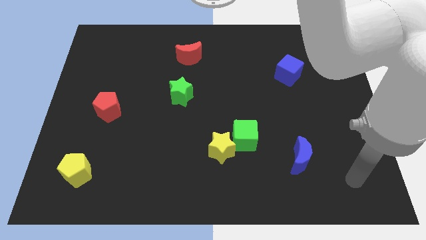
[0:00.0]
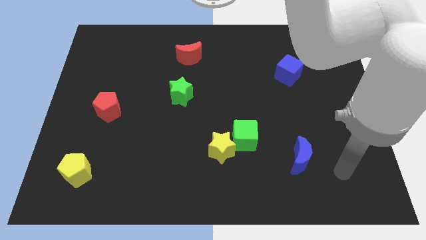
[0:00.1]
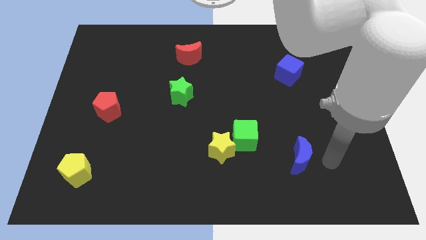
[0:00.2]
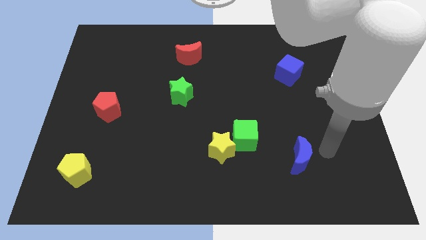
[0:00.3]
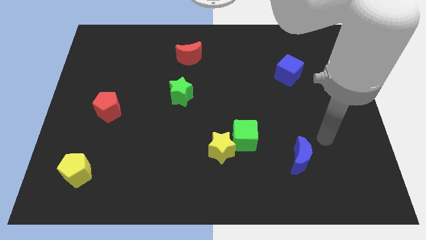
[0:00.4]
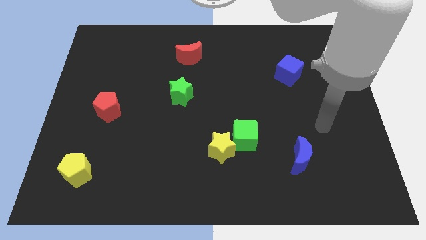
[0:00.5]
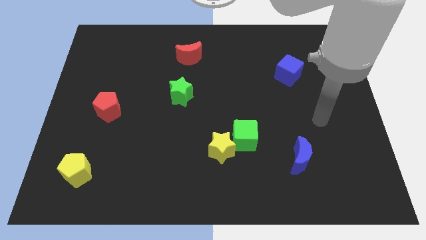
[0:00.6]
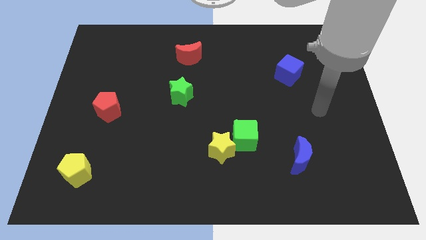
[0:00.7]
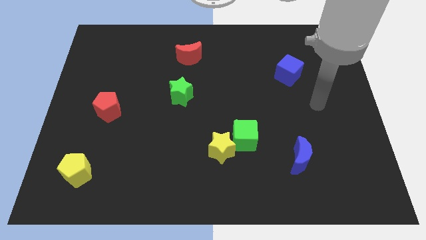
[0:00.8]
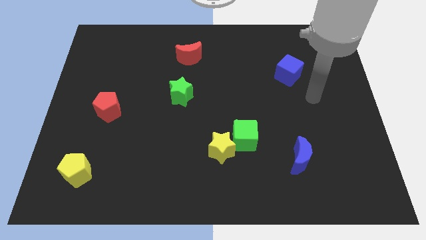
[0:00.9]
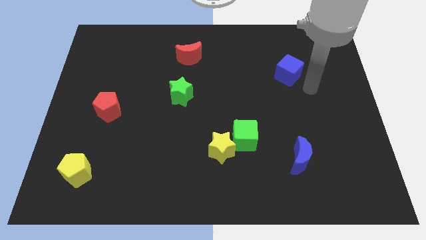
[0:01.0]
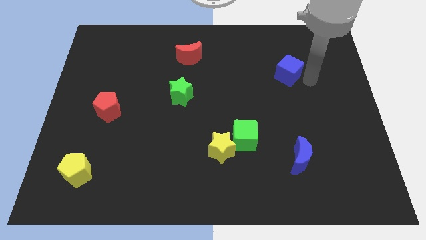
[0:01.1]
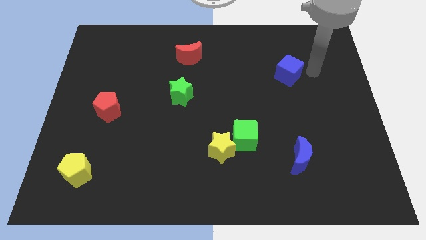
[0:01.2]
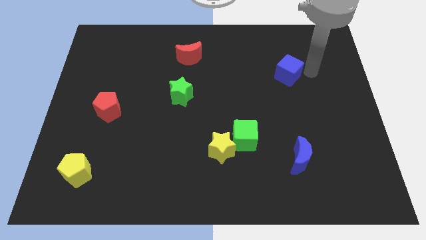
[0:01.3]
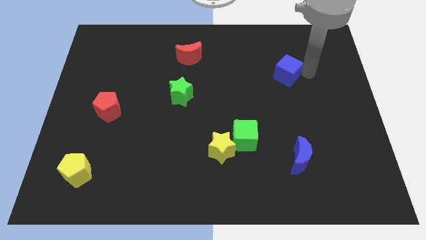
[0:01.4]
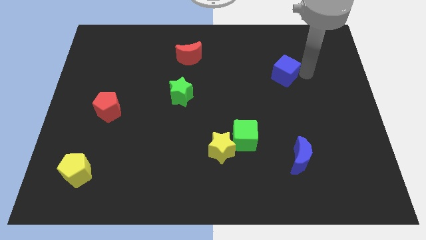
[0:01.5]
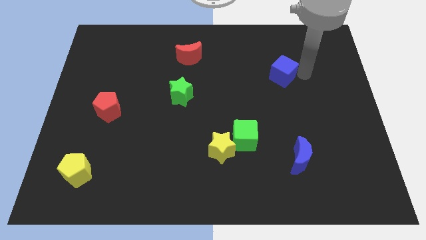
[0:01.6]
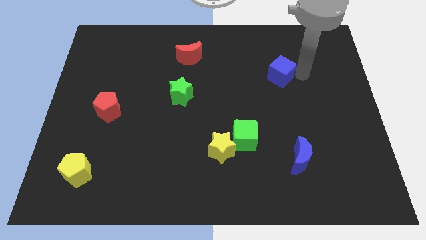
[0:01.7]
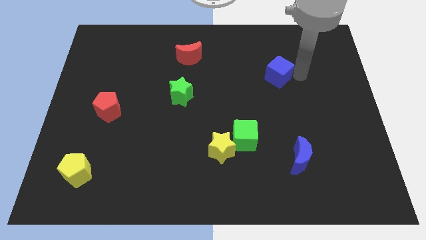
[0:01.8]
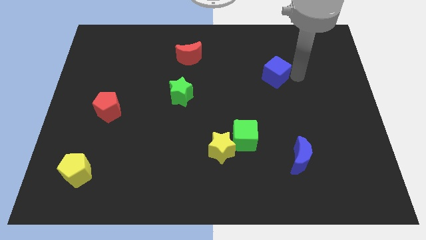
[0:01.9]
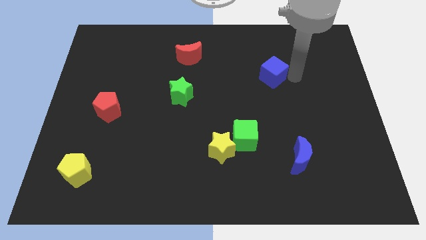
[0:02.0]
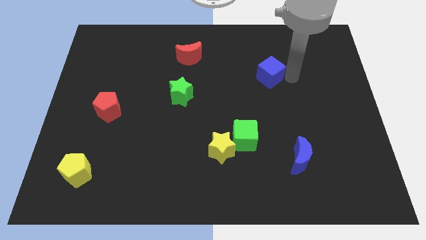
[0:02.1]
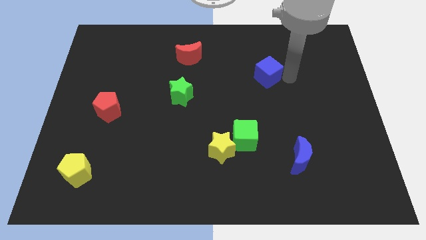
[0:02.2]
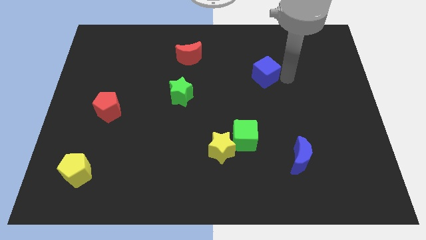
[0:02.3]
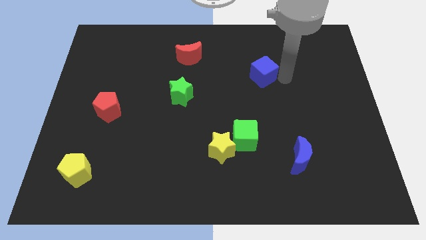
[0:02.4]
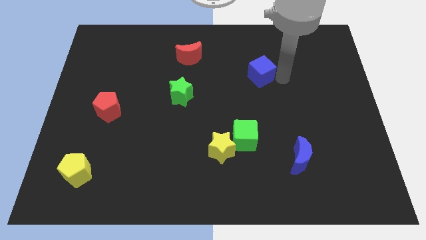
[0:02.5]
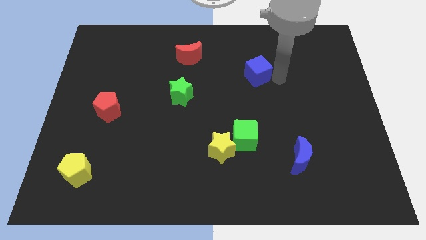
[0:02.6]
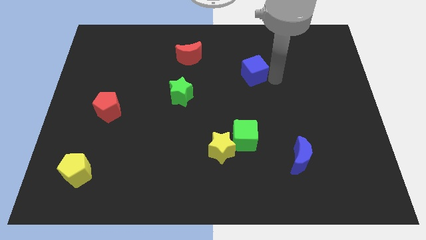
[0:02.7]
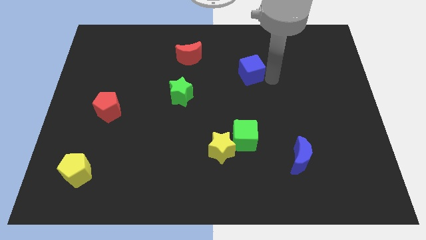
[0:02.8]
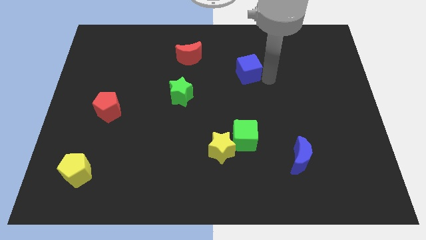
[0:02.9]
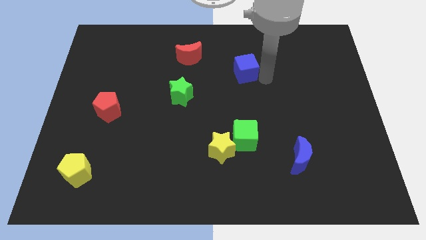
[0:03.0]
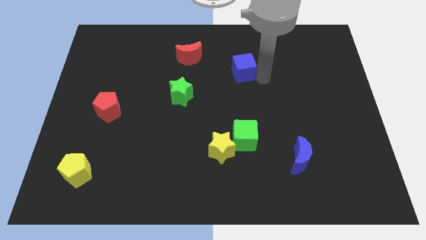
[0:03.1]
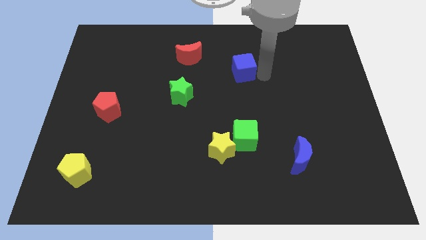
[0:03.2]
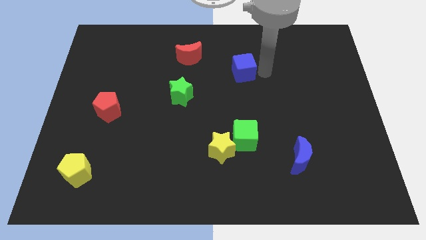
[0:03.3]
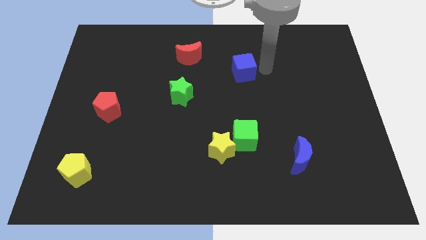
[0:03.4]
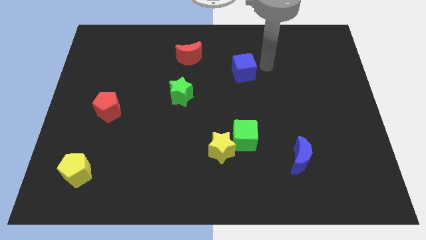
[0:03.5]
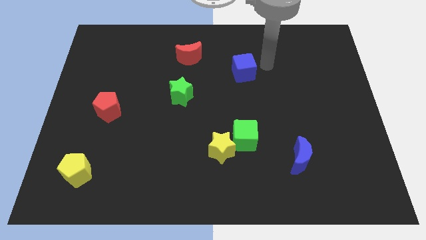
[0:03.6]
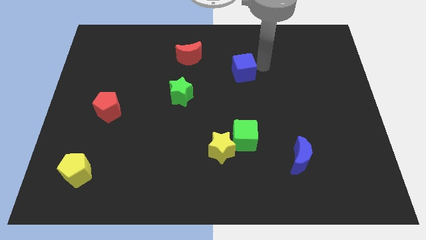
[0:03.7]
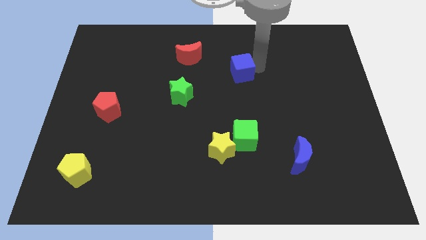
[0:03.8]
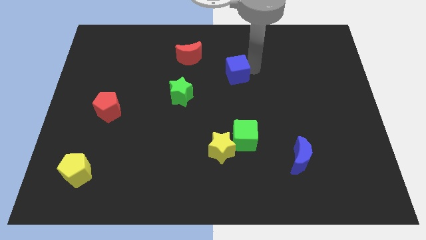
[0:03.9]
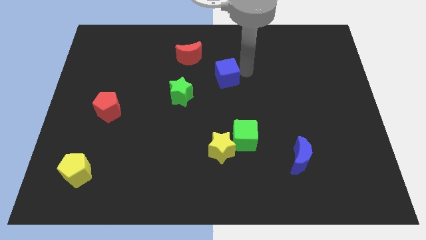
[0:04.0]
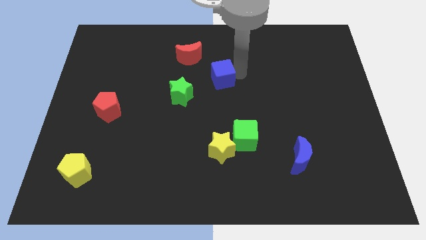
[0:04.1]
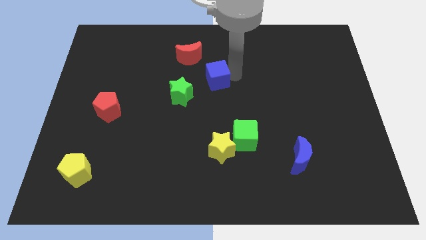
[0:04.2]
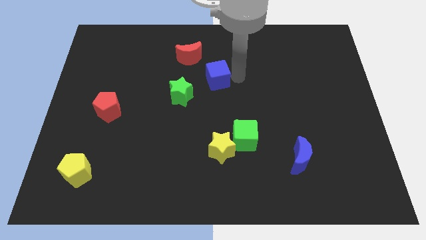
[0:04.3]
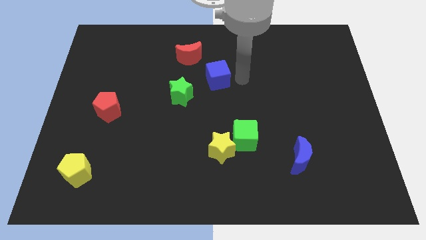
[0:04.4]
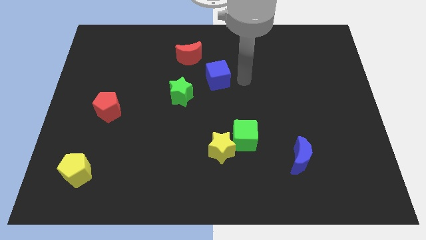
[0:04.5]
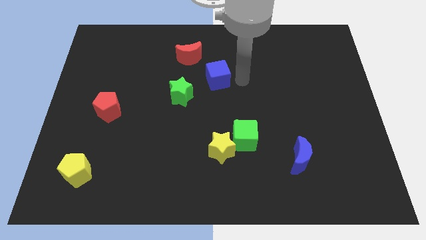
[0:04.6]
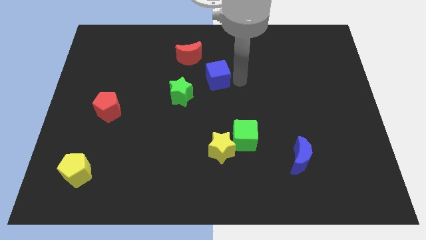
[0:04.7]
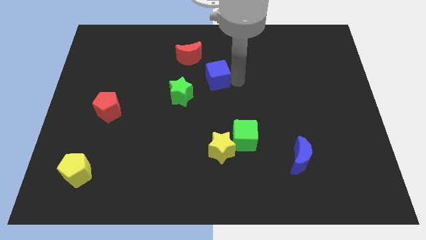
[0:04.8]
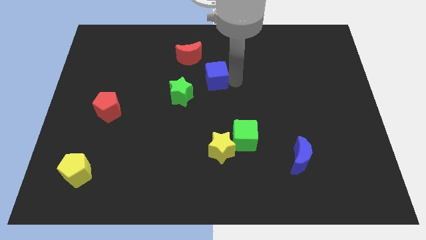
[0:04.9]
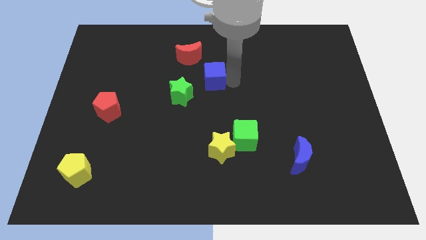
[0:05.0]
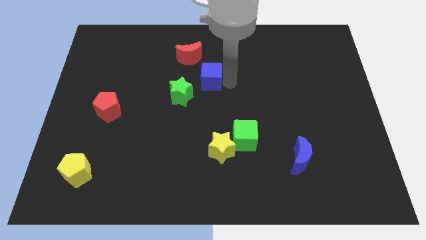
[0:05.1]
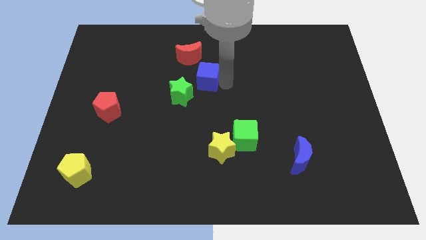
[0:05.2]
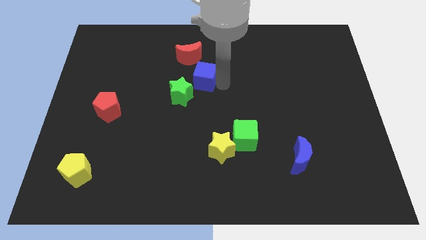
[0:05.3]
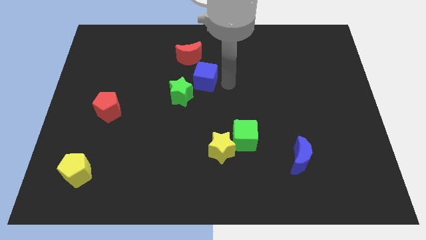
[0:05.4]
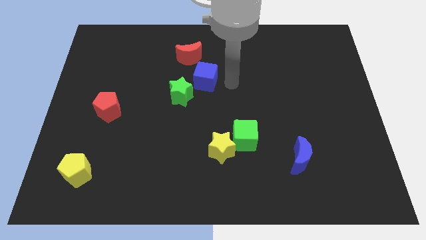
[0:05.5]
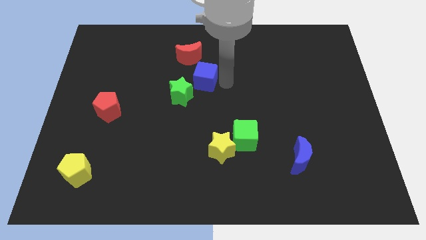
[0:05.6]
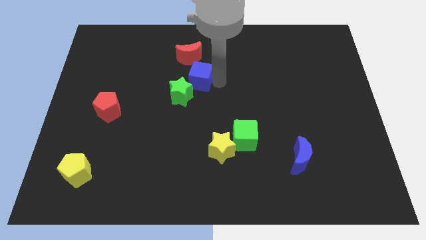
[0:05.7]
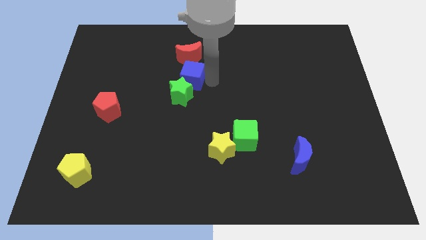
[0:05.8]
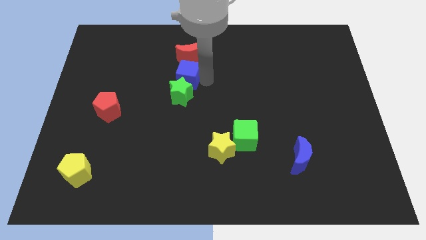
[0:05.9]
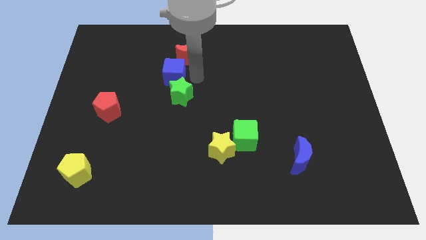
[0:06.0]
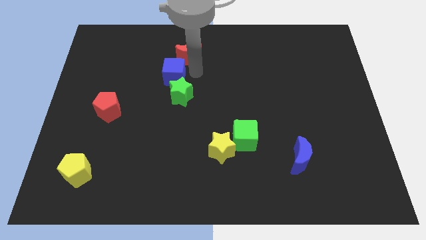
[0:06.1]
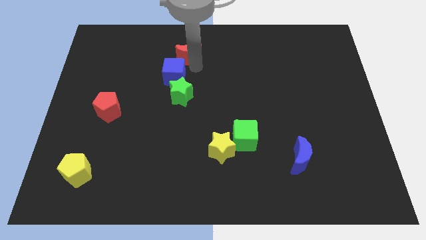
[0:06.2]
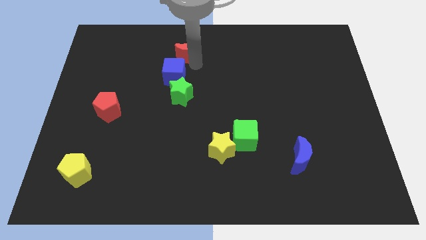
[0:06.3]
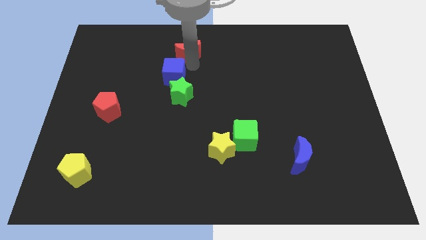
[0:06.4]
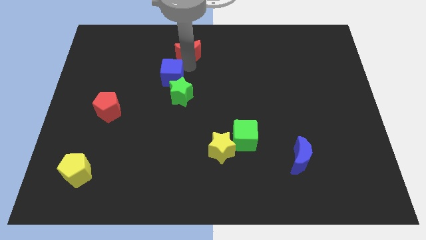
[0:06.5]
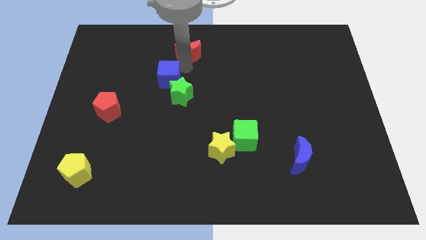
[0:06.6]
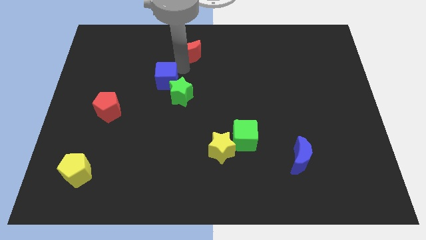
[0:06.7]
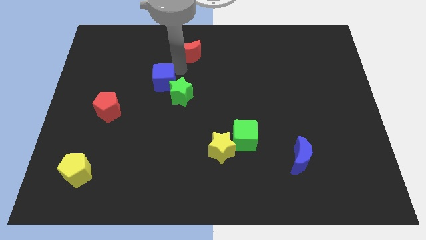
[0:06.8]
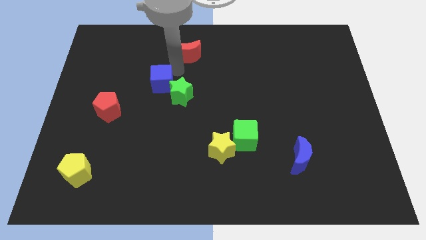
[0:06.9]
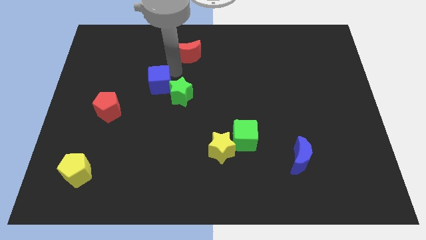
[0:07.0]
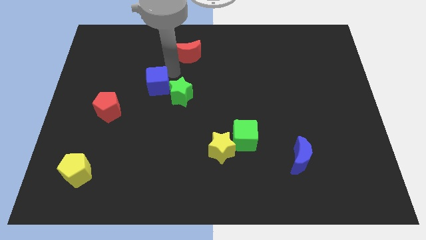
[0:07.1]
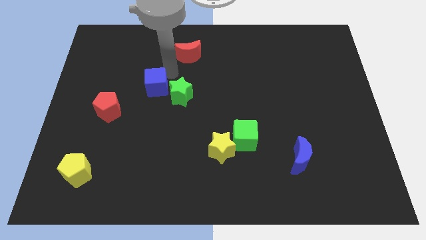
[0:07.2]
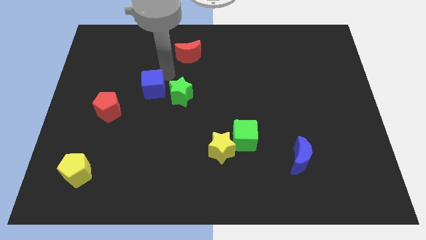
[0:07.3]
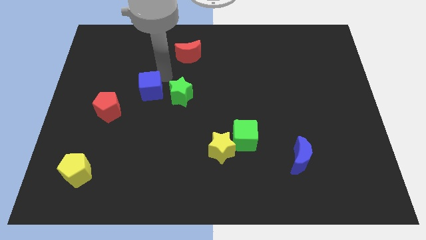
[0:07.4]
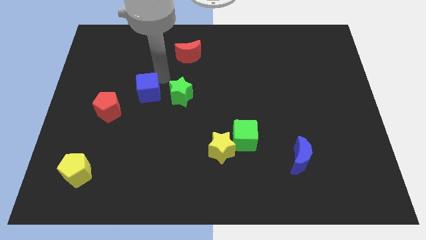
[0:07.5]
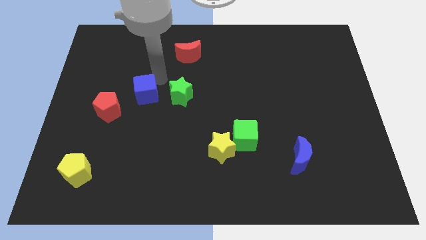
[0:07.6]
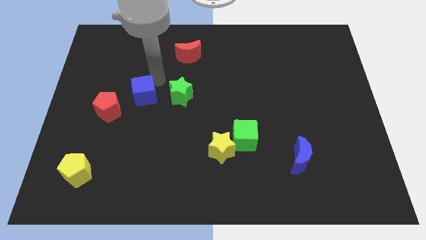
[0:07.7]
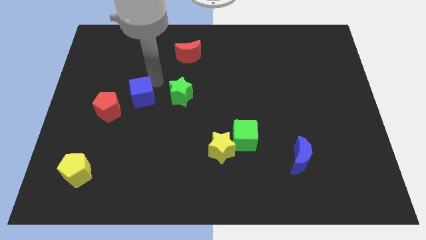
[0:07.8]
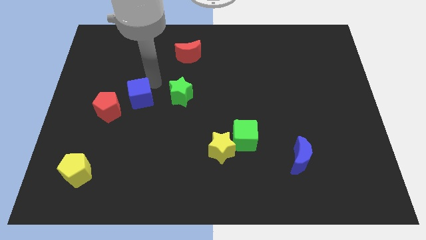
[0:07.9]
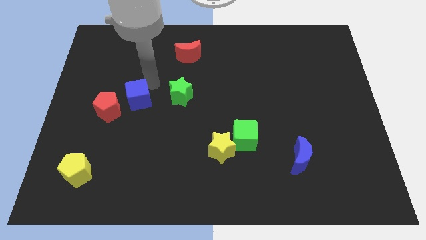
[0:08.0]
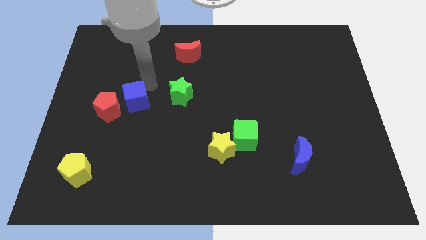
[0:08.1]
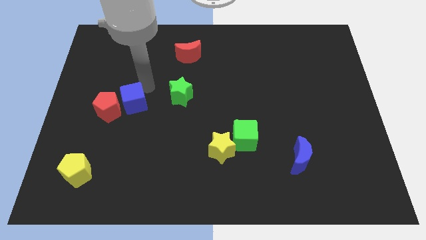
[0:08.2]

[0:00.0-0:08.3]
slide the blue cube towards the red pentagon
